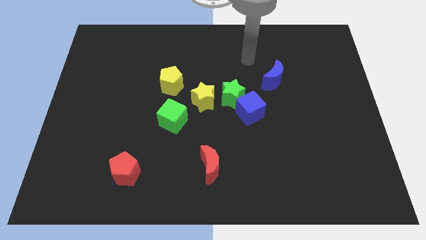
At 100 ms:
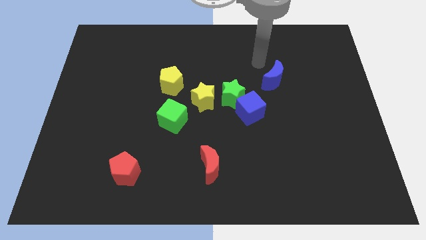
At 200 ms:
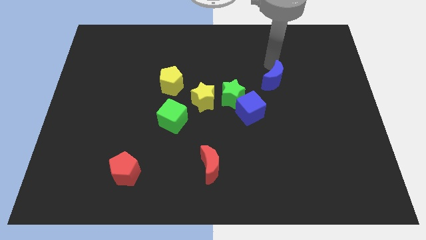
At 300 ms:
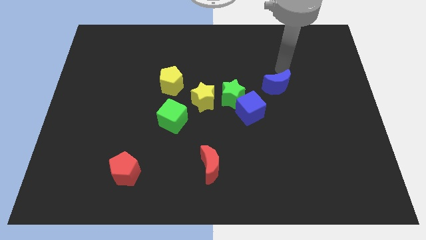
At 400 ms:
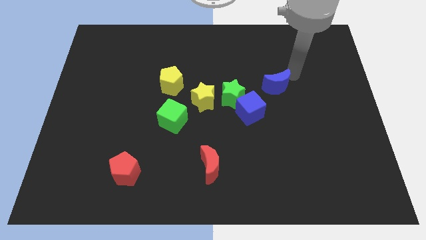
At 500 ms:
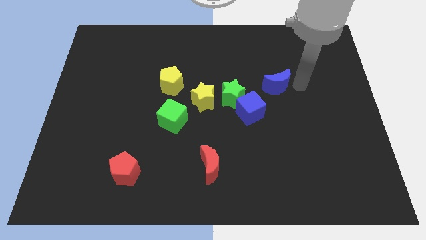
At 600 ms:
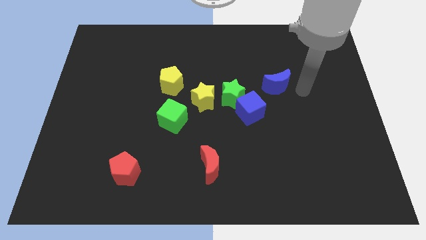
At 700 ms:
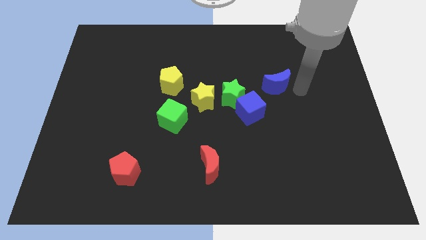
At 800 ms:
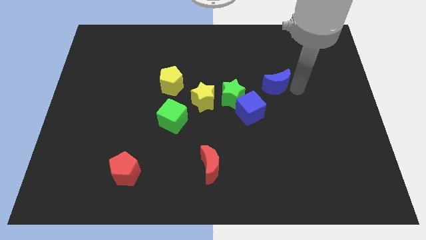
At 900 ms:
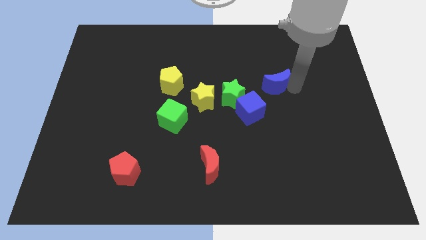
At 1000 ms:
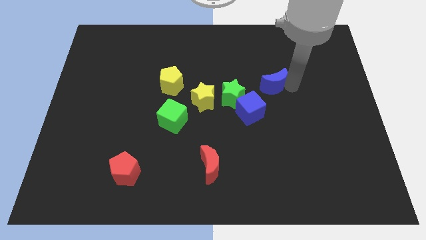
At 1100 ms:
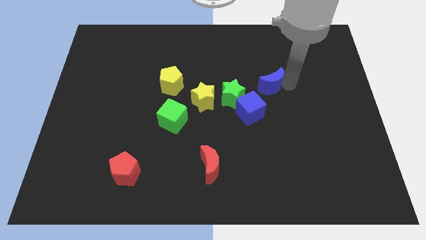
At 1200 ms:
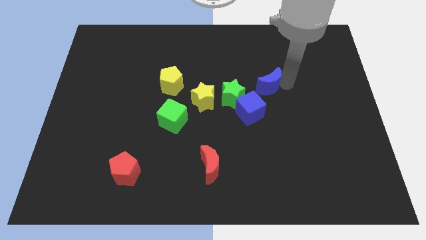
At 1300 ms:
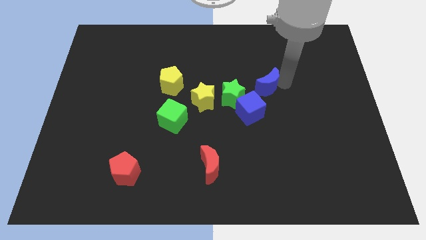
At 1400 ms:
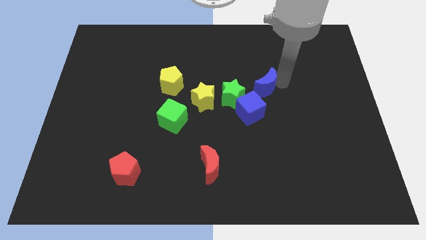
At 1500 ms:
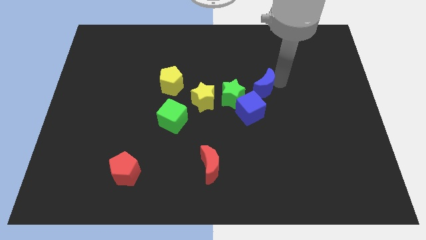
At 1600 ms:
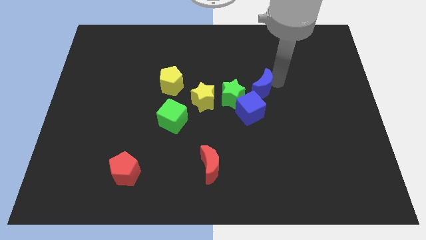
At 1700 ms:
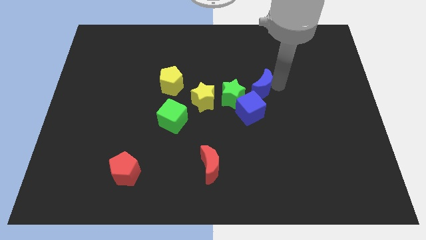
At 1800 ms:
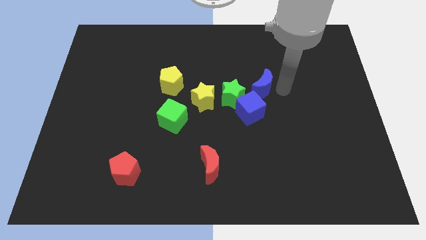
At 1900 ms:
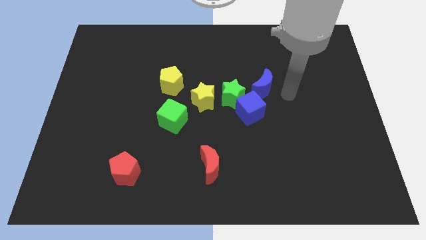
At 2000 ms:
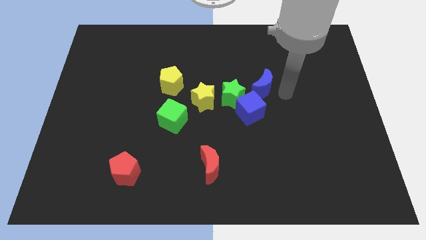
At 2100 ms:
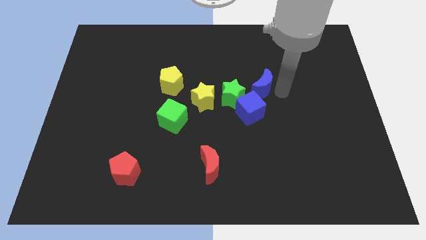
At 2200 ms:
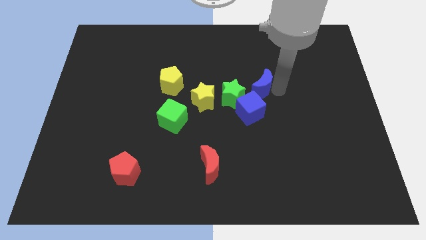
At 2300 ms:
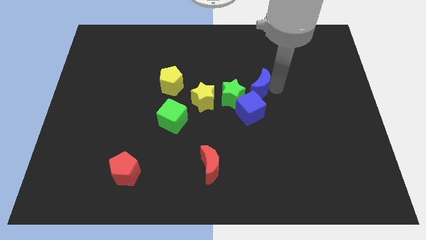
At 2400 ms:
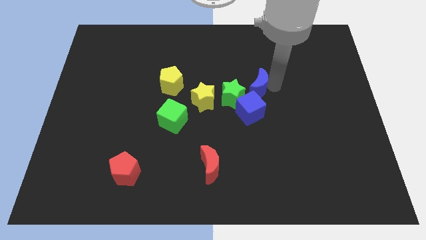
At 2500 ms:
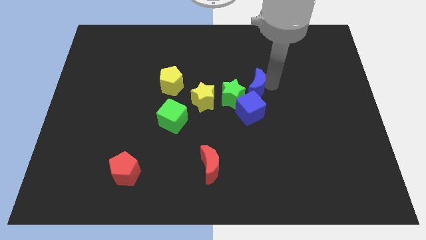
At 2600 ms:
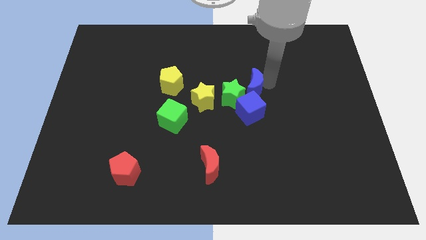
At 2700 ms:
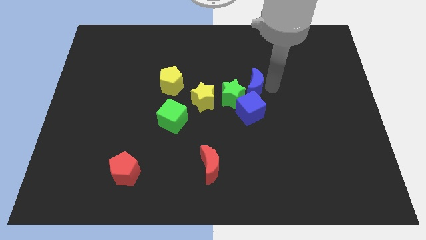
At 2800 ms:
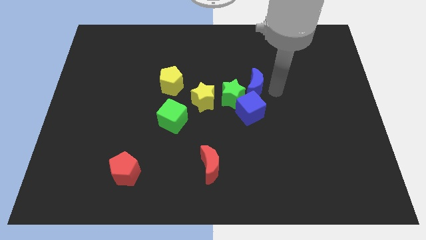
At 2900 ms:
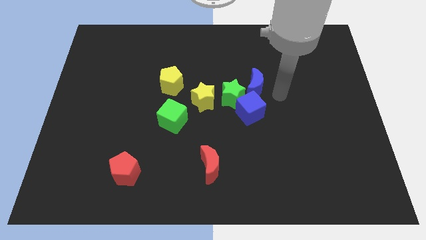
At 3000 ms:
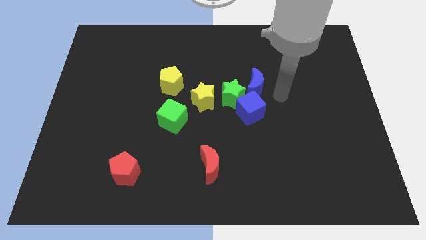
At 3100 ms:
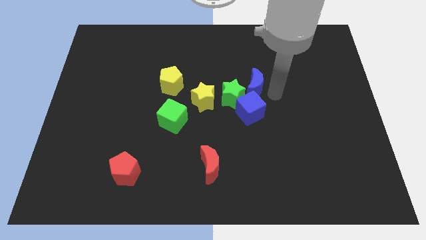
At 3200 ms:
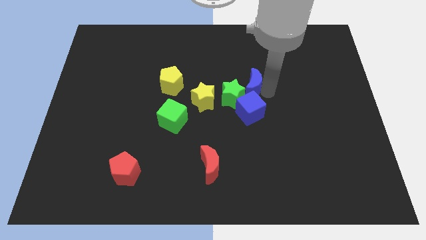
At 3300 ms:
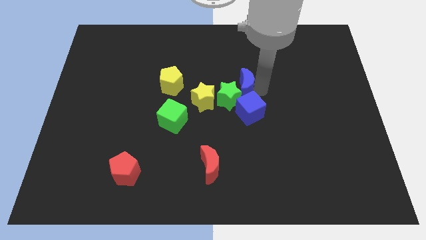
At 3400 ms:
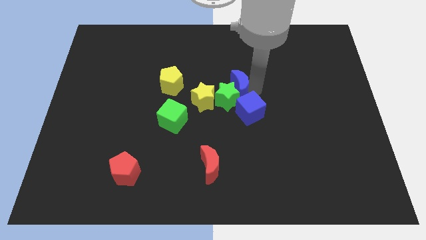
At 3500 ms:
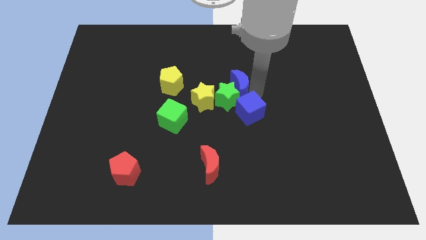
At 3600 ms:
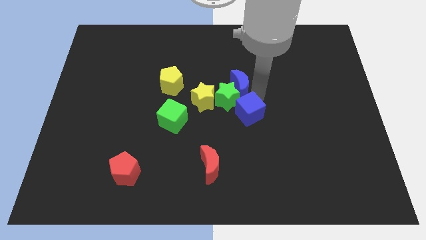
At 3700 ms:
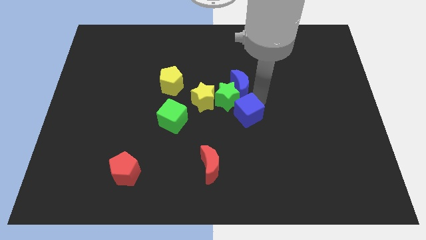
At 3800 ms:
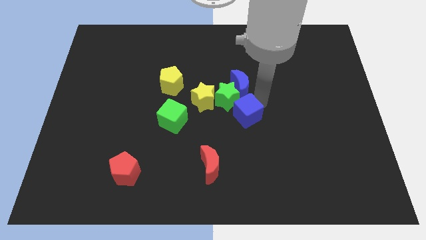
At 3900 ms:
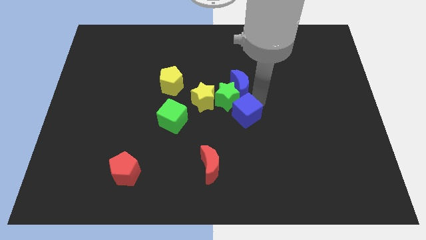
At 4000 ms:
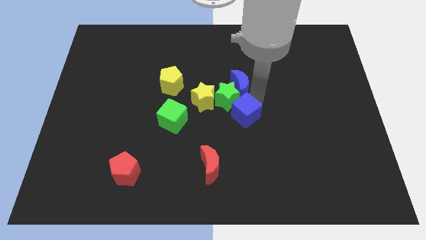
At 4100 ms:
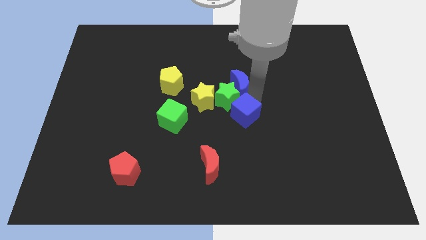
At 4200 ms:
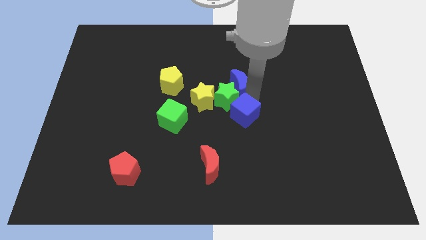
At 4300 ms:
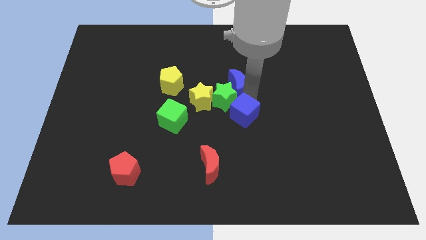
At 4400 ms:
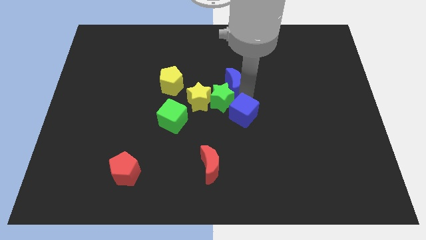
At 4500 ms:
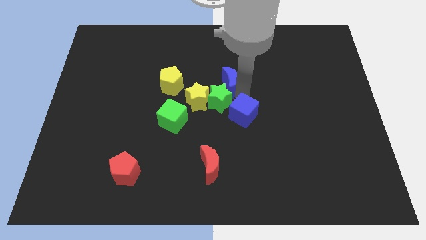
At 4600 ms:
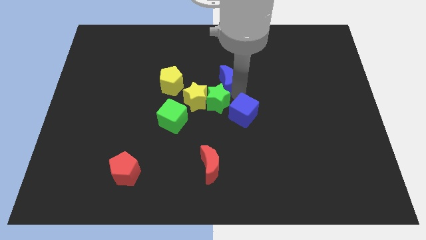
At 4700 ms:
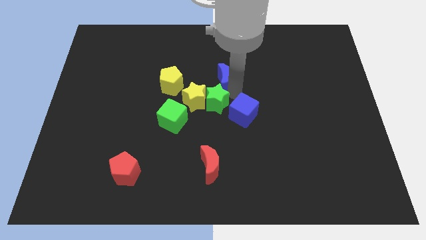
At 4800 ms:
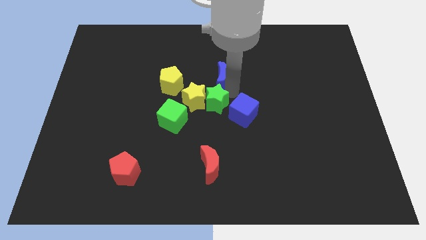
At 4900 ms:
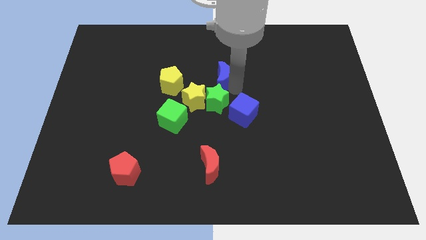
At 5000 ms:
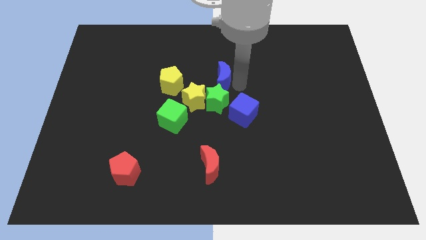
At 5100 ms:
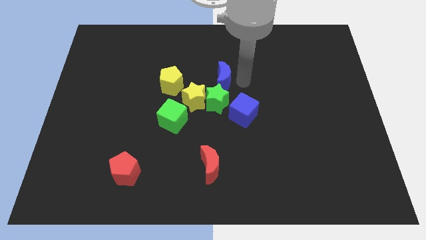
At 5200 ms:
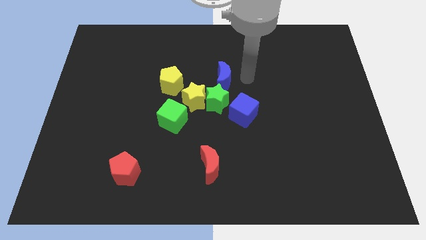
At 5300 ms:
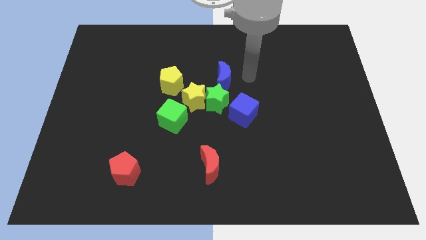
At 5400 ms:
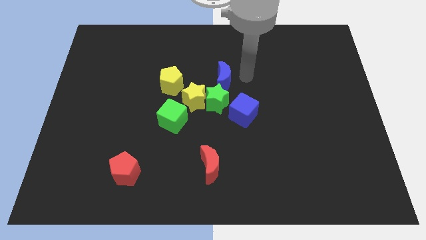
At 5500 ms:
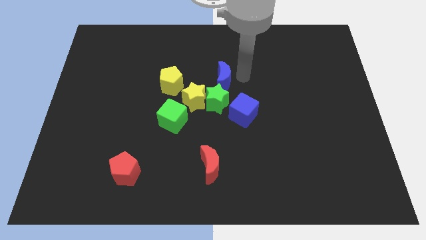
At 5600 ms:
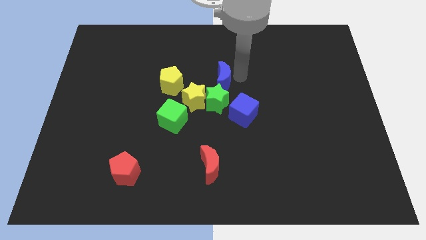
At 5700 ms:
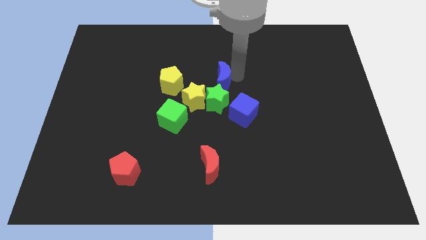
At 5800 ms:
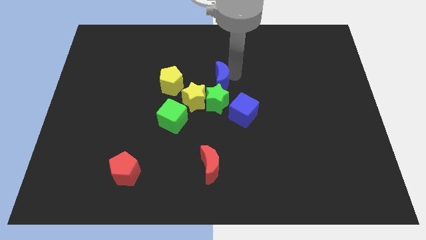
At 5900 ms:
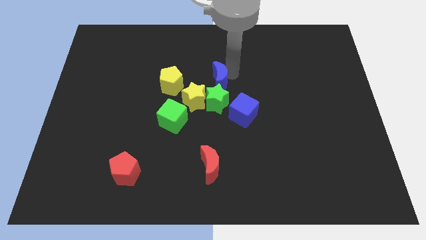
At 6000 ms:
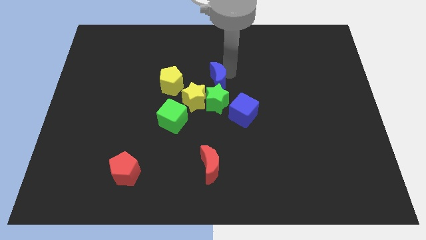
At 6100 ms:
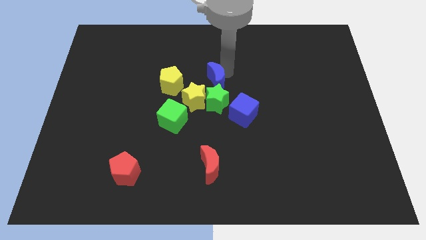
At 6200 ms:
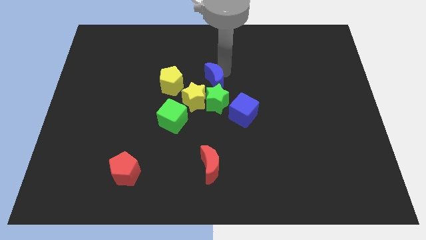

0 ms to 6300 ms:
move the blue moon diagonally up and to the left of the green star

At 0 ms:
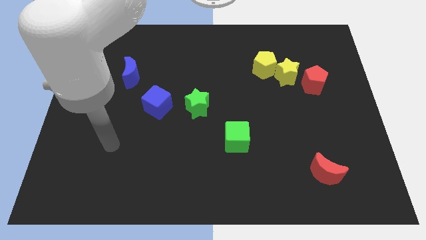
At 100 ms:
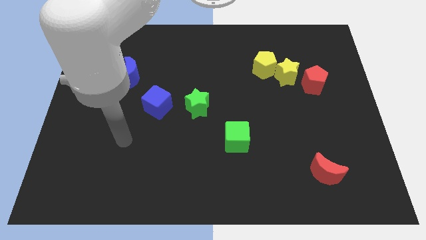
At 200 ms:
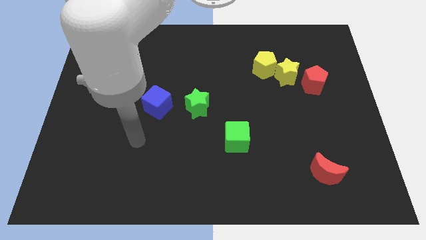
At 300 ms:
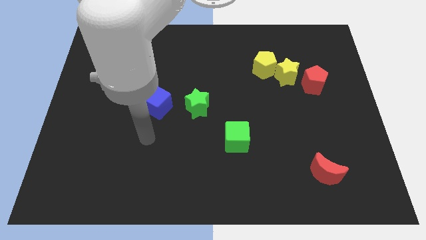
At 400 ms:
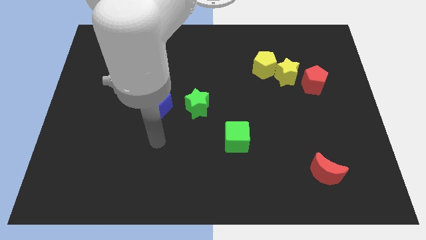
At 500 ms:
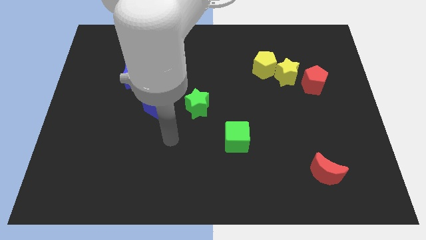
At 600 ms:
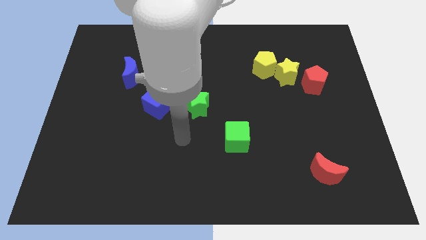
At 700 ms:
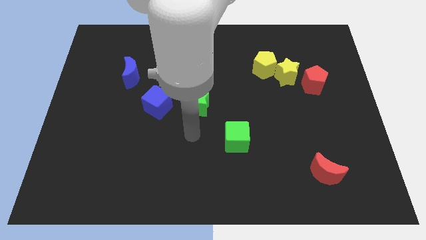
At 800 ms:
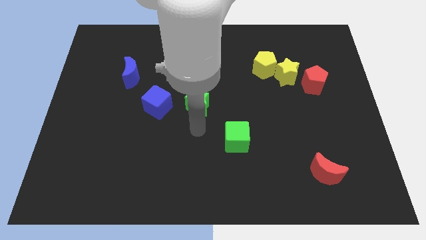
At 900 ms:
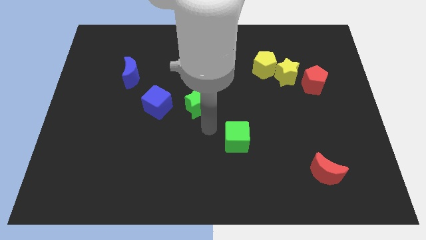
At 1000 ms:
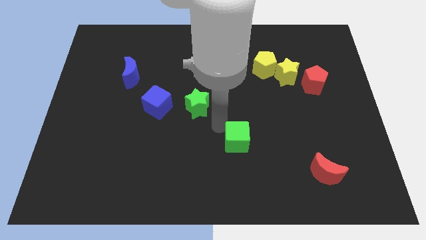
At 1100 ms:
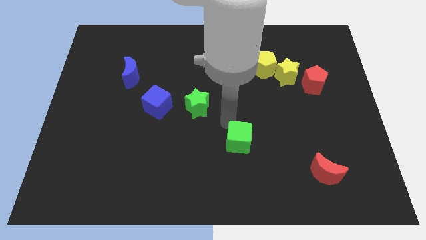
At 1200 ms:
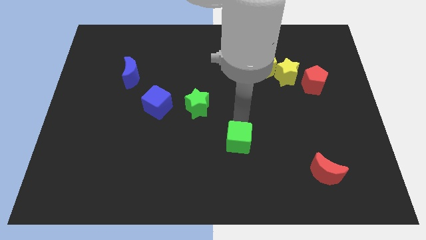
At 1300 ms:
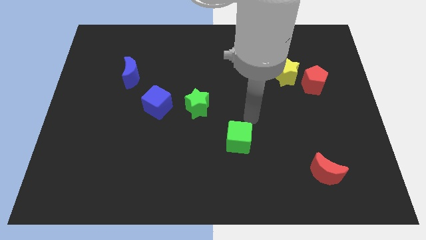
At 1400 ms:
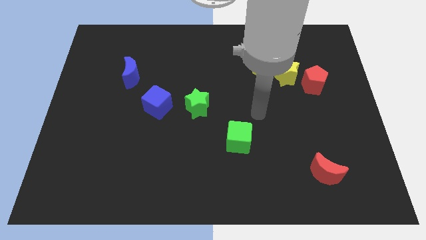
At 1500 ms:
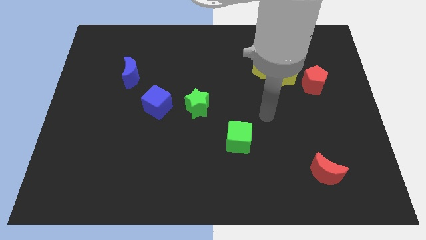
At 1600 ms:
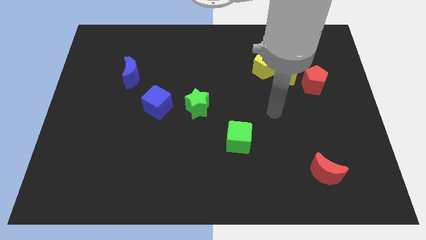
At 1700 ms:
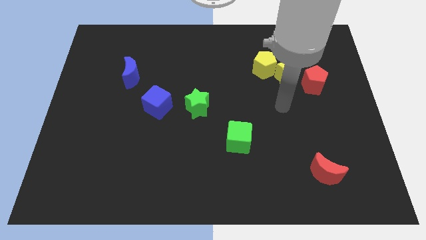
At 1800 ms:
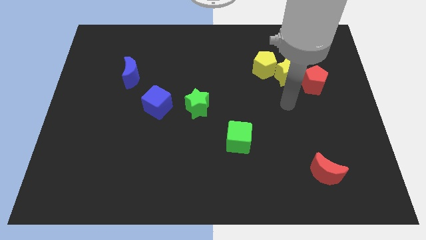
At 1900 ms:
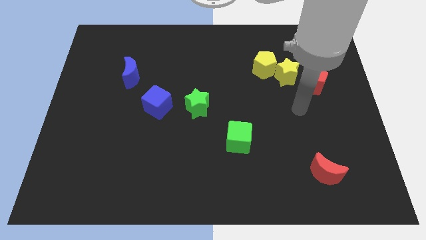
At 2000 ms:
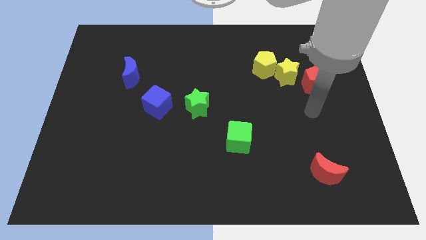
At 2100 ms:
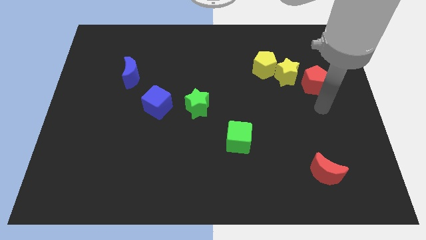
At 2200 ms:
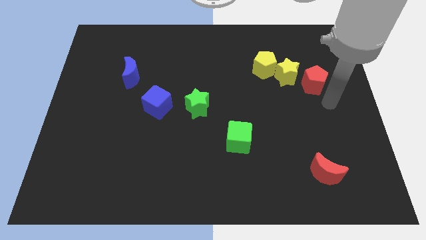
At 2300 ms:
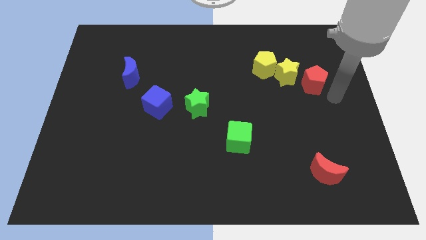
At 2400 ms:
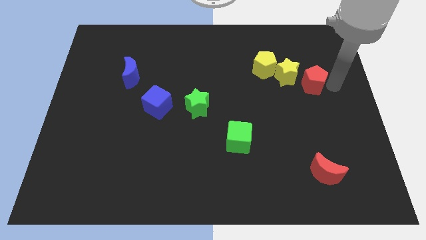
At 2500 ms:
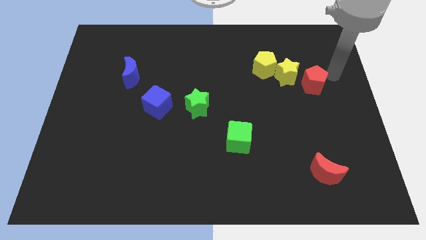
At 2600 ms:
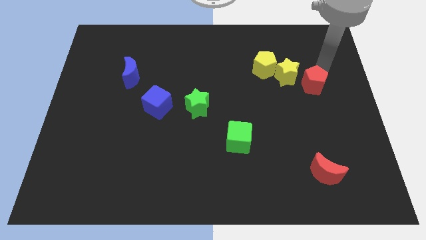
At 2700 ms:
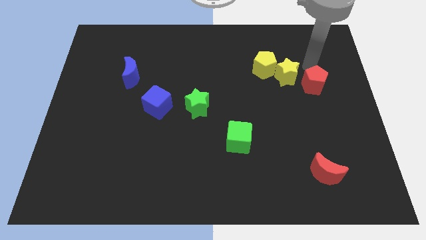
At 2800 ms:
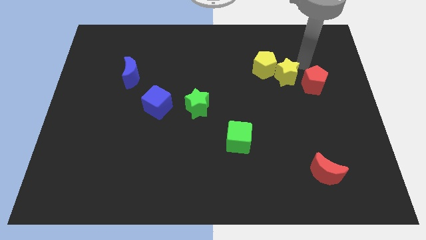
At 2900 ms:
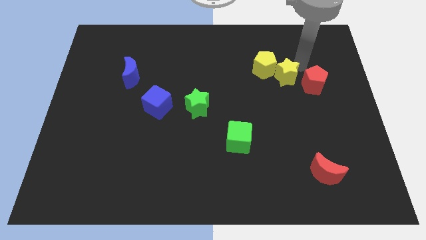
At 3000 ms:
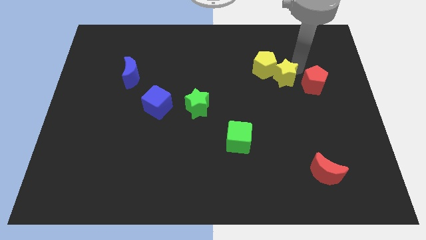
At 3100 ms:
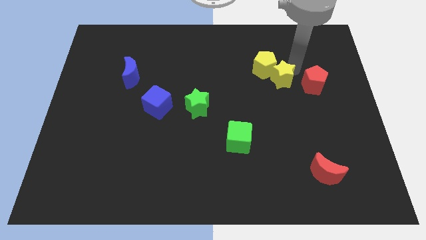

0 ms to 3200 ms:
push the yellow star below the yellow pentagon
